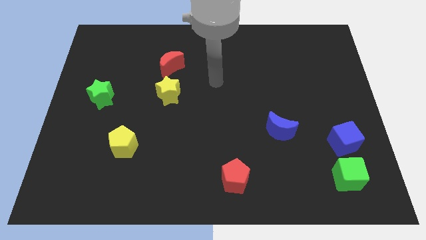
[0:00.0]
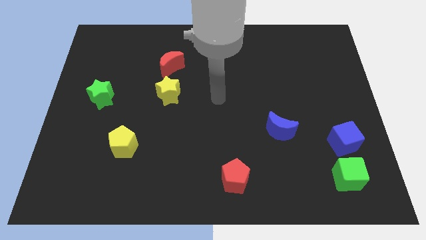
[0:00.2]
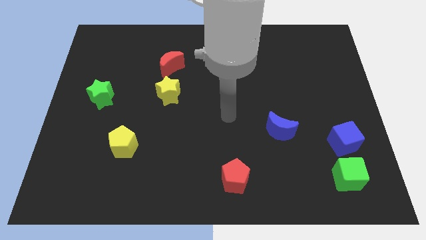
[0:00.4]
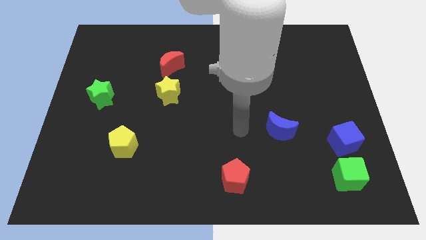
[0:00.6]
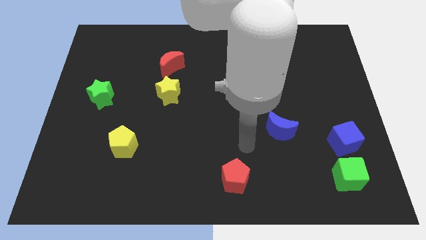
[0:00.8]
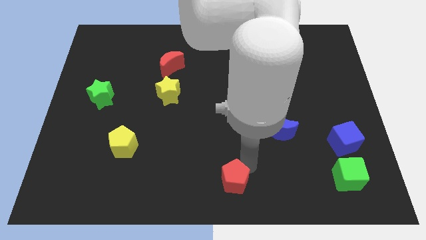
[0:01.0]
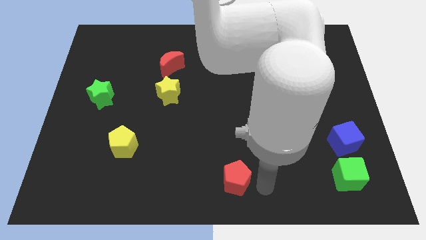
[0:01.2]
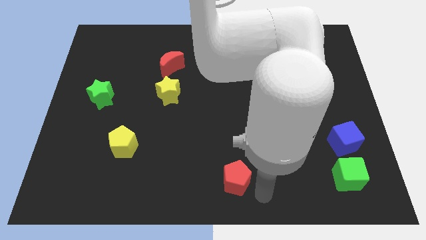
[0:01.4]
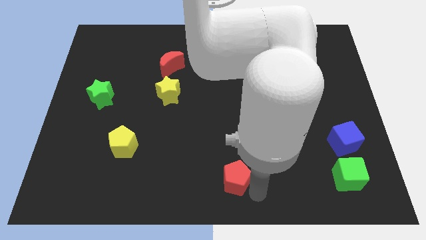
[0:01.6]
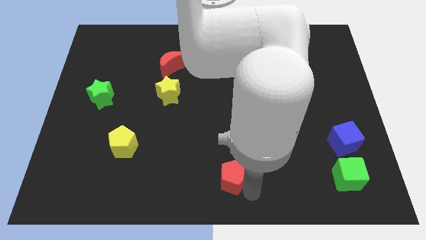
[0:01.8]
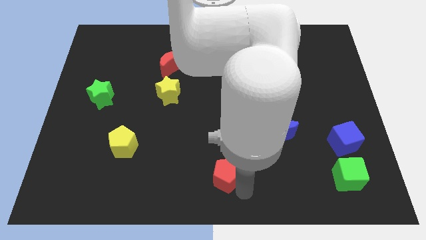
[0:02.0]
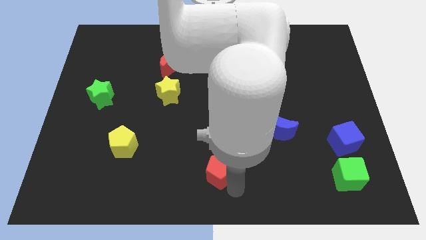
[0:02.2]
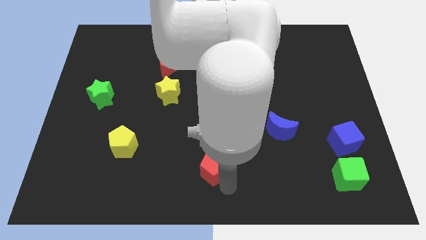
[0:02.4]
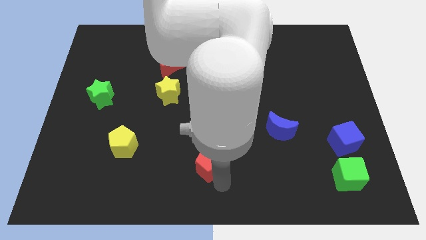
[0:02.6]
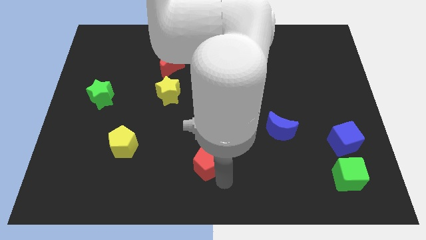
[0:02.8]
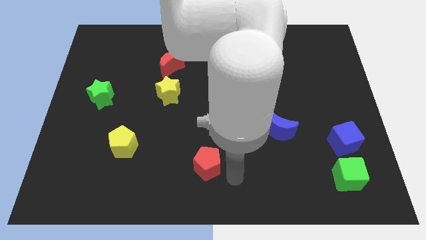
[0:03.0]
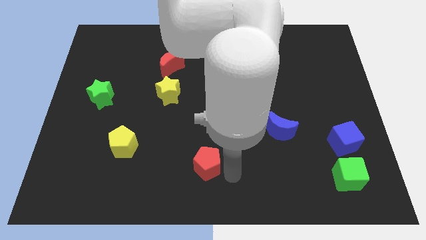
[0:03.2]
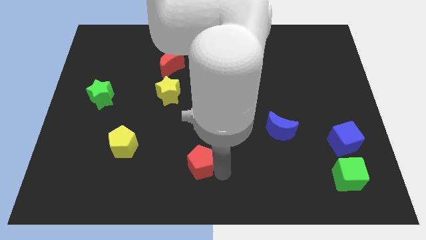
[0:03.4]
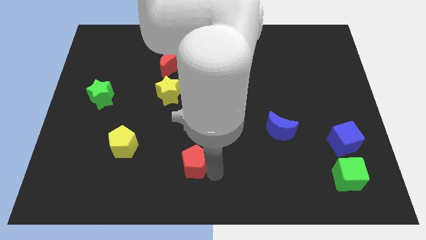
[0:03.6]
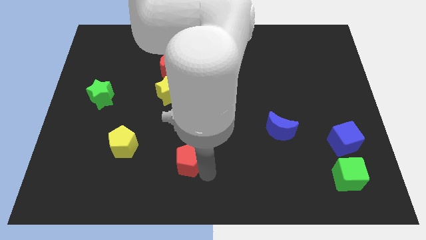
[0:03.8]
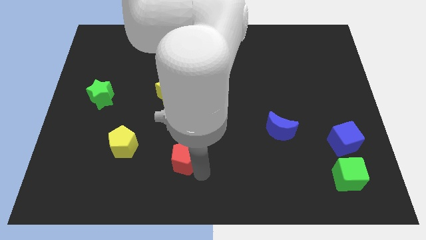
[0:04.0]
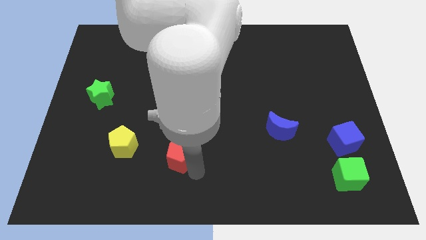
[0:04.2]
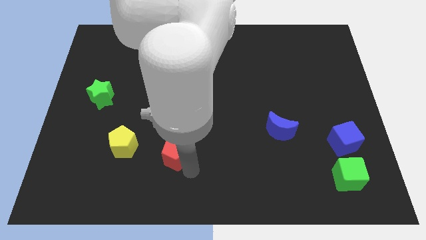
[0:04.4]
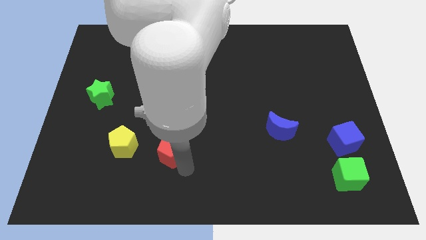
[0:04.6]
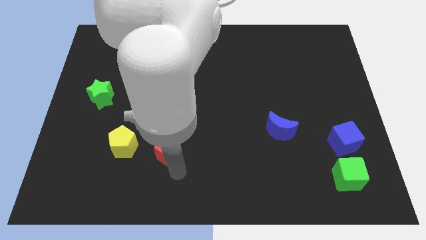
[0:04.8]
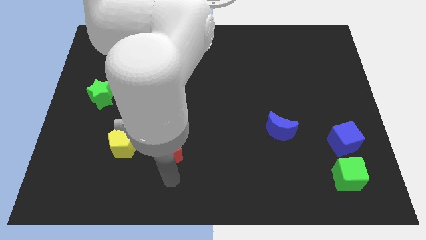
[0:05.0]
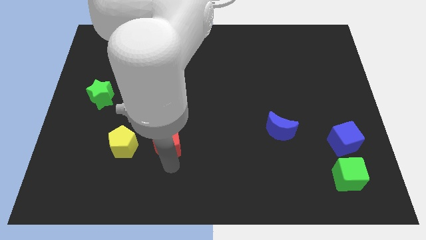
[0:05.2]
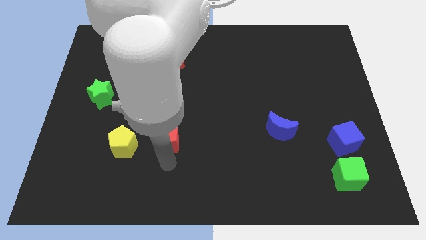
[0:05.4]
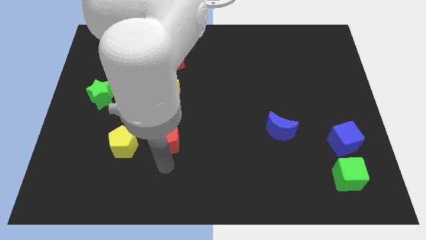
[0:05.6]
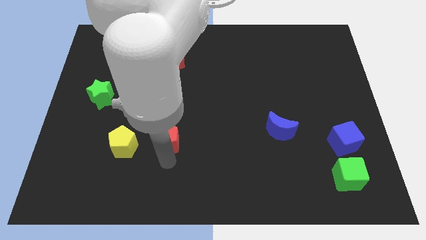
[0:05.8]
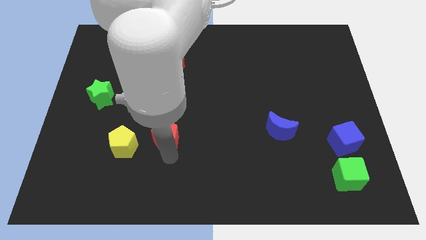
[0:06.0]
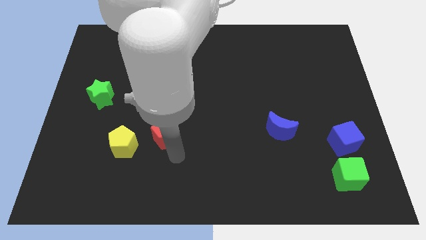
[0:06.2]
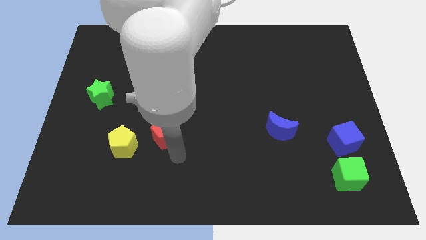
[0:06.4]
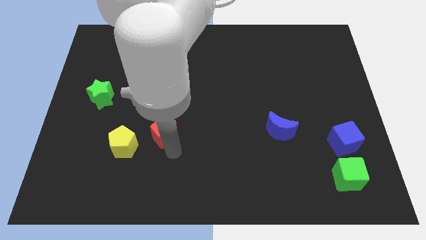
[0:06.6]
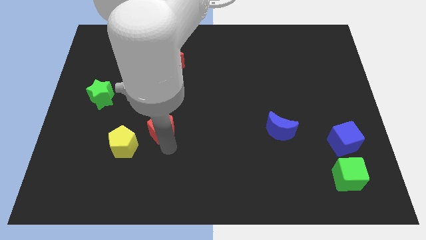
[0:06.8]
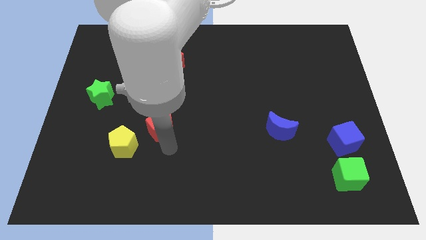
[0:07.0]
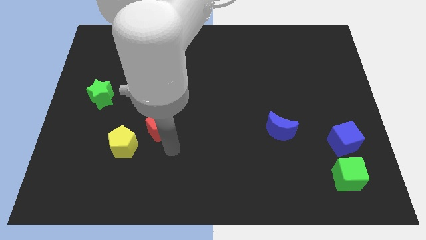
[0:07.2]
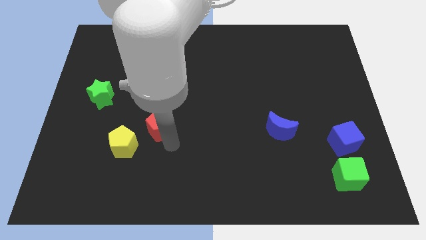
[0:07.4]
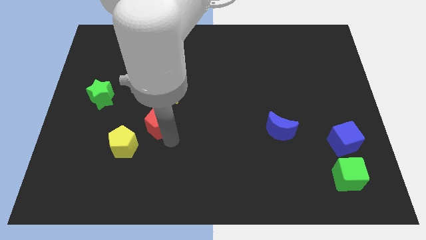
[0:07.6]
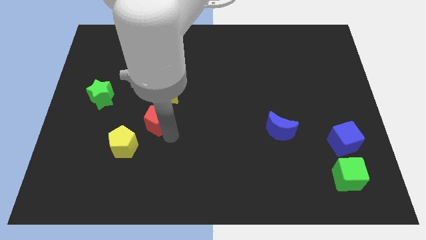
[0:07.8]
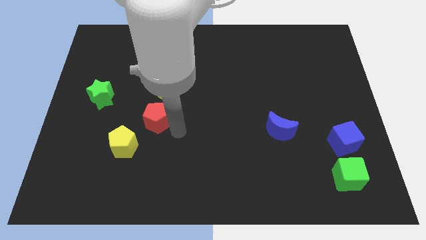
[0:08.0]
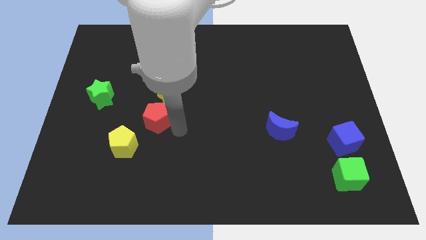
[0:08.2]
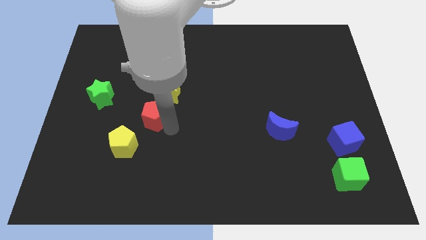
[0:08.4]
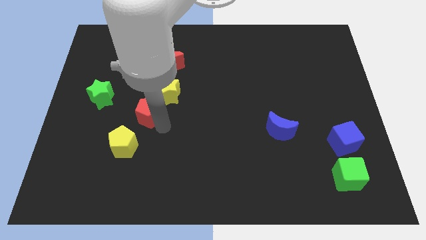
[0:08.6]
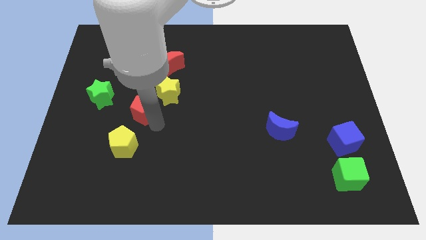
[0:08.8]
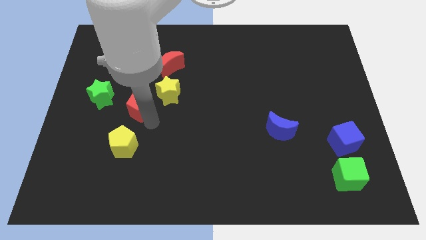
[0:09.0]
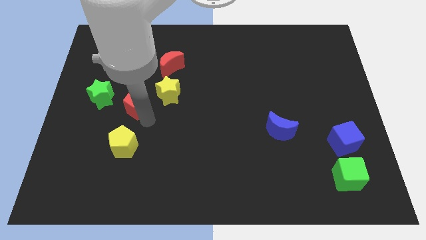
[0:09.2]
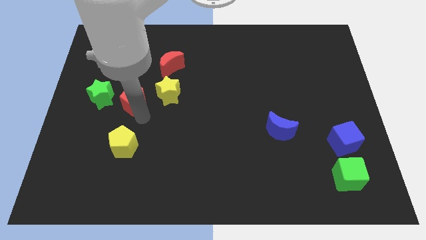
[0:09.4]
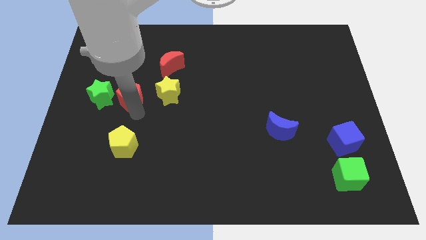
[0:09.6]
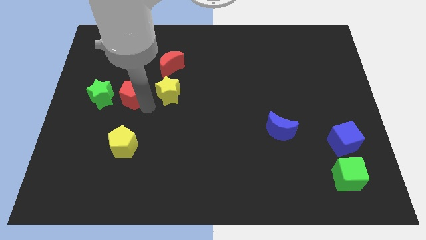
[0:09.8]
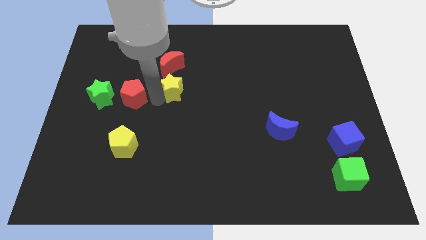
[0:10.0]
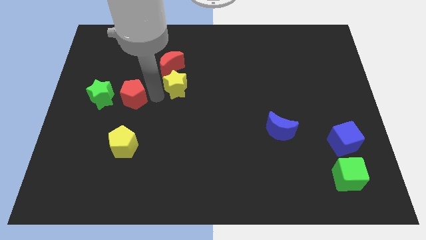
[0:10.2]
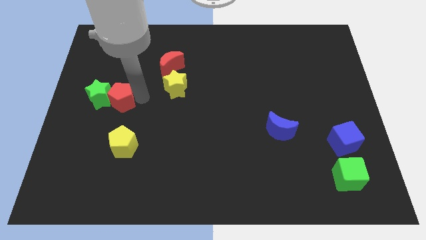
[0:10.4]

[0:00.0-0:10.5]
push the red pentagon next to the green star

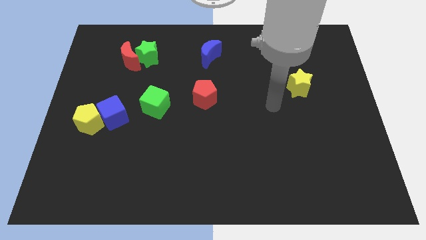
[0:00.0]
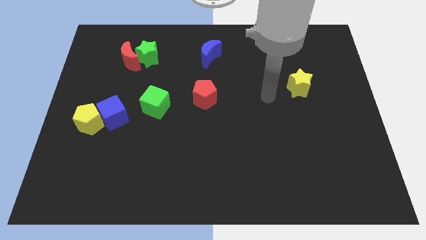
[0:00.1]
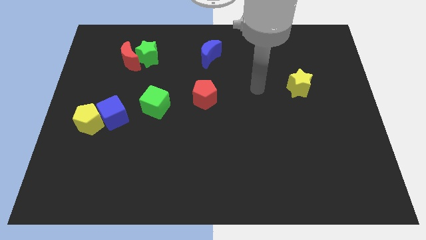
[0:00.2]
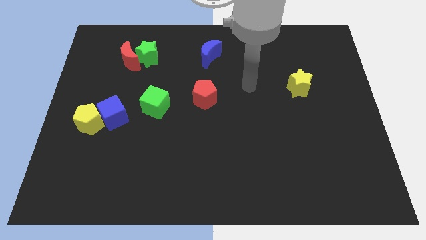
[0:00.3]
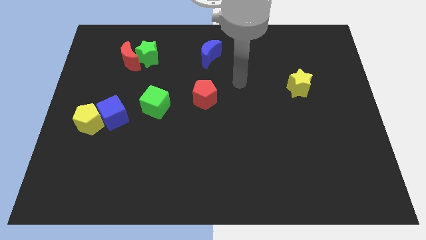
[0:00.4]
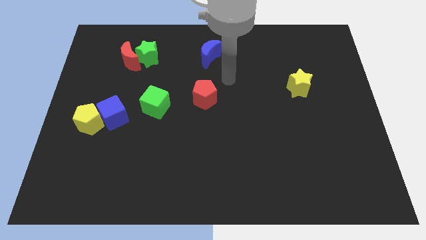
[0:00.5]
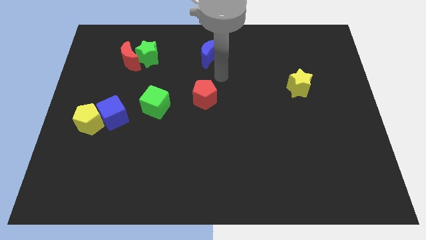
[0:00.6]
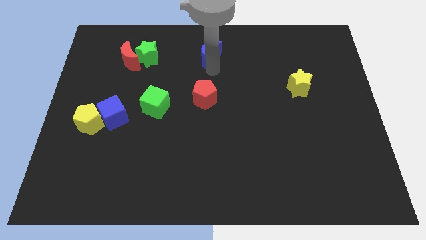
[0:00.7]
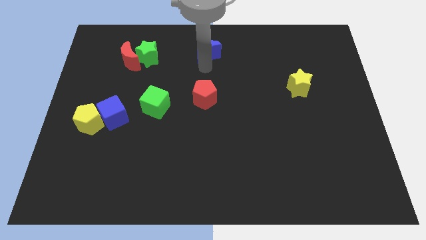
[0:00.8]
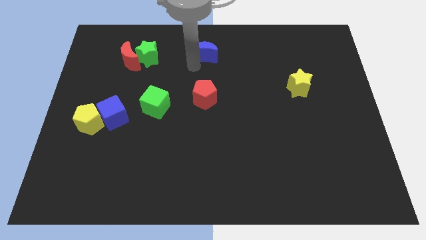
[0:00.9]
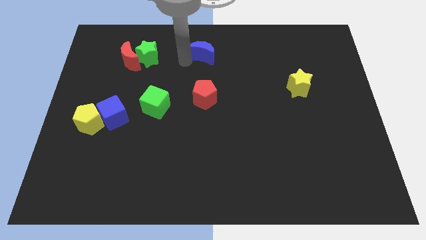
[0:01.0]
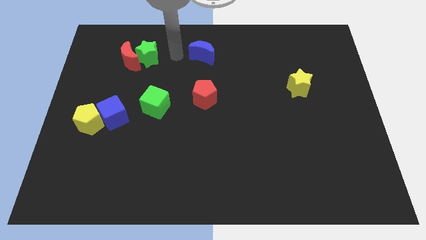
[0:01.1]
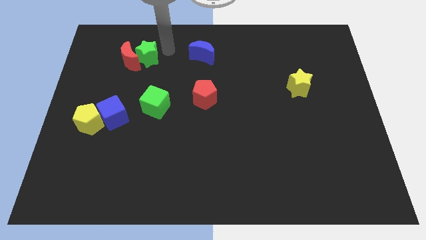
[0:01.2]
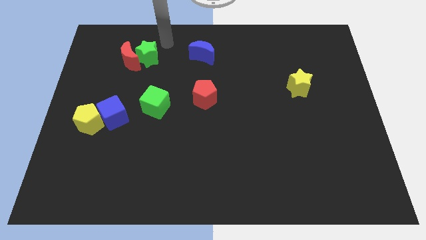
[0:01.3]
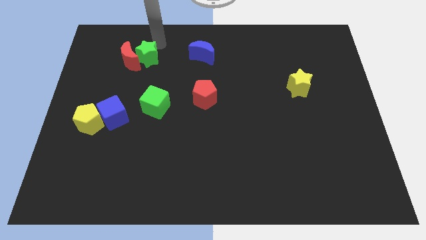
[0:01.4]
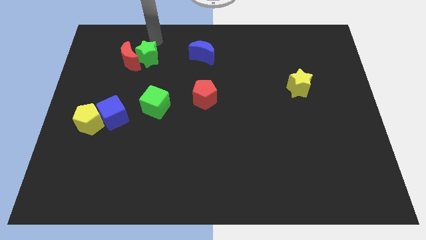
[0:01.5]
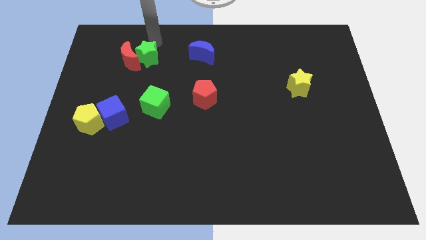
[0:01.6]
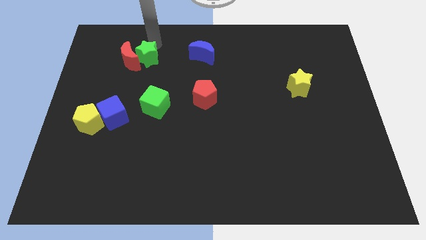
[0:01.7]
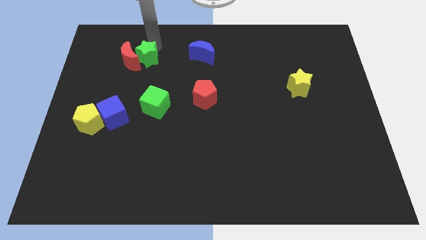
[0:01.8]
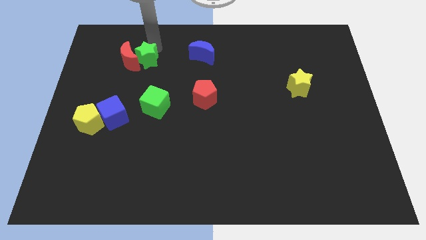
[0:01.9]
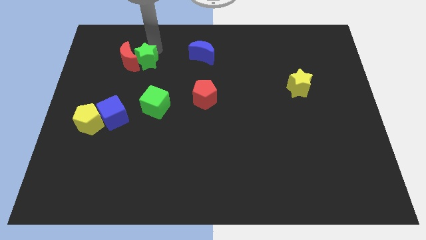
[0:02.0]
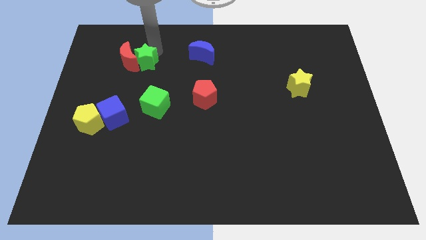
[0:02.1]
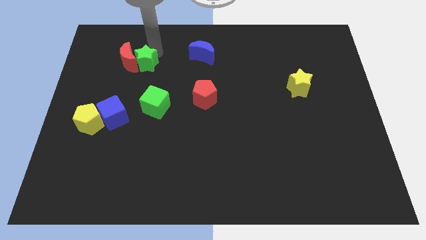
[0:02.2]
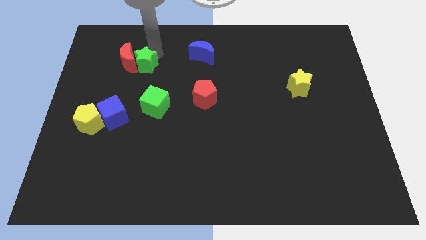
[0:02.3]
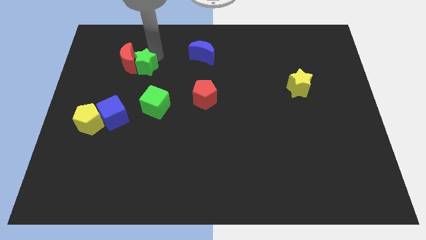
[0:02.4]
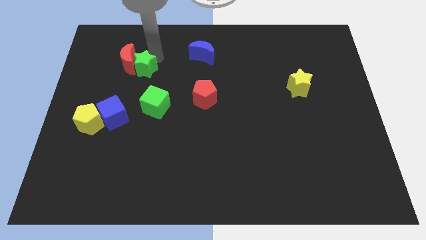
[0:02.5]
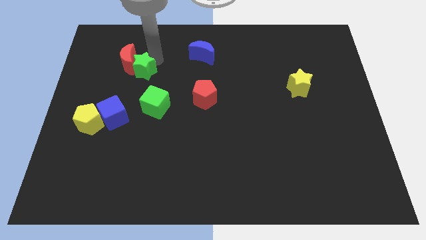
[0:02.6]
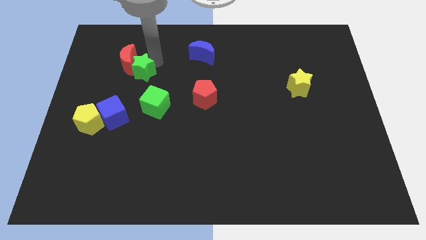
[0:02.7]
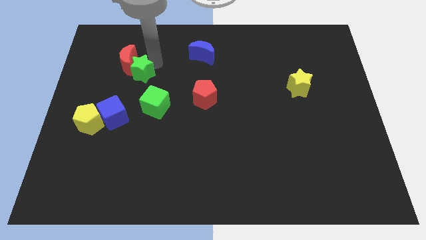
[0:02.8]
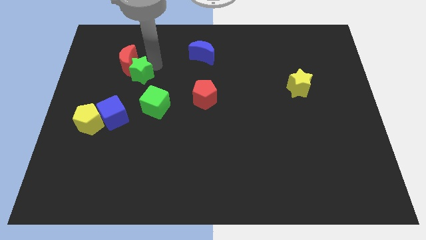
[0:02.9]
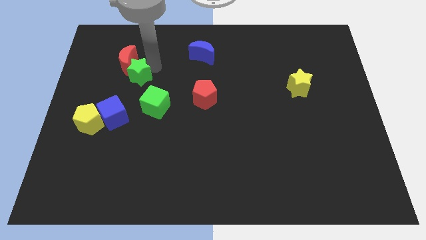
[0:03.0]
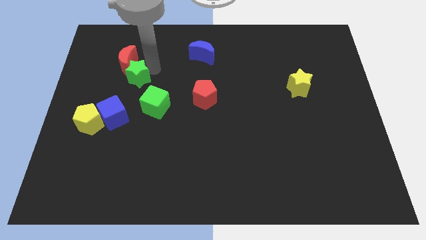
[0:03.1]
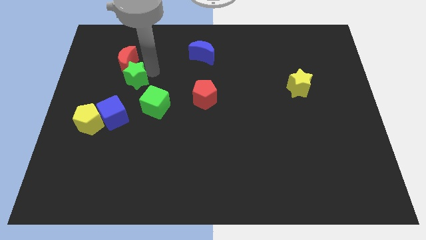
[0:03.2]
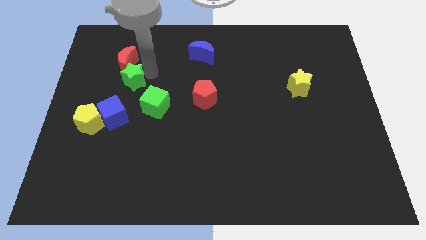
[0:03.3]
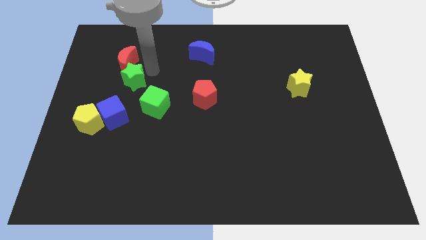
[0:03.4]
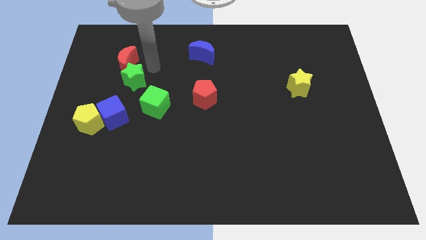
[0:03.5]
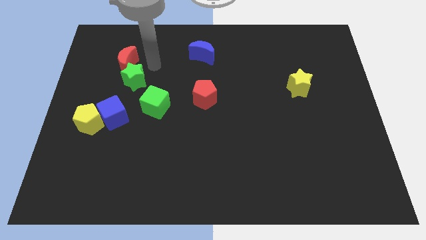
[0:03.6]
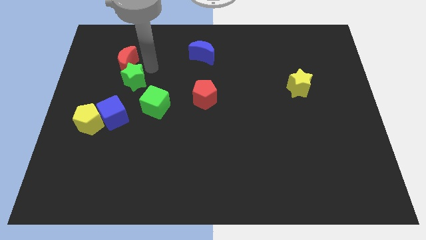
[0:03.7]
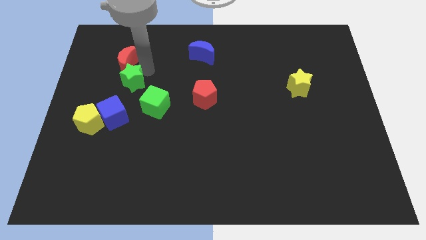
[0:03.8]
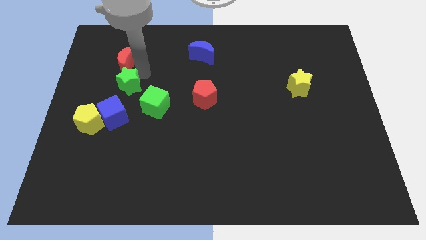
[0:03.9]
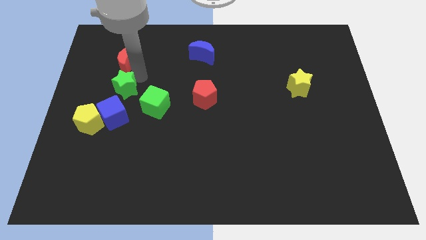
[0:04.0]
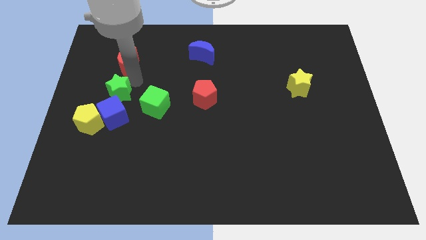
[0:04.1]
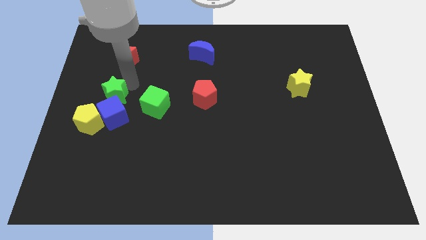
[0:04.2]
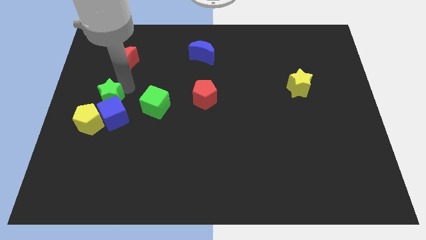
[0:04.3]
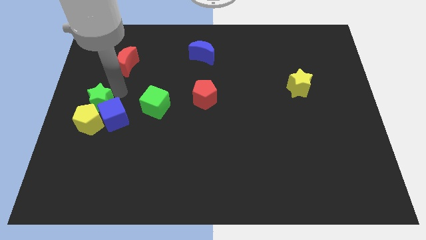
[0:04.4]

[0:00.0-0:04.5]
slide the green star next to the yellow pentagon
